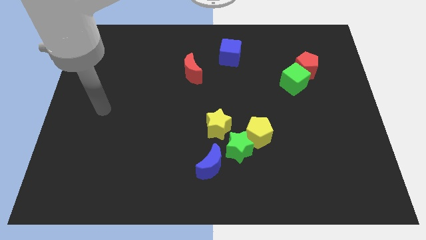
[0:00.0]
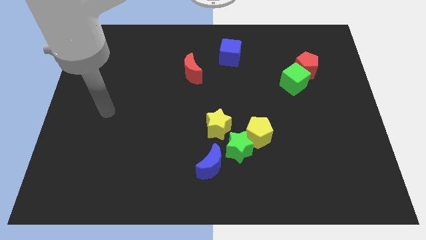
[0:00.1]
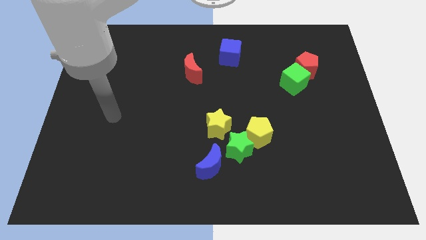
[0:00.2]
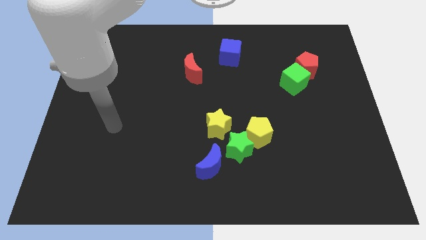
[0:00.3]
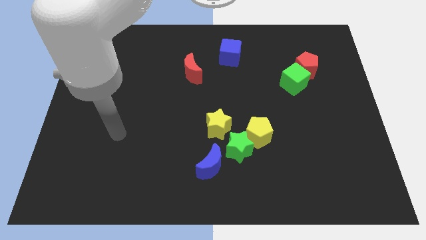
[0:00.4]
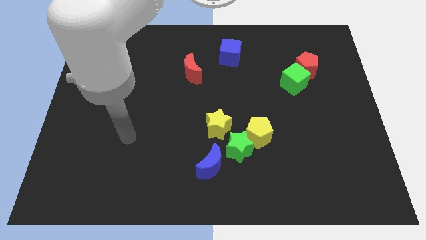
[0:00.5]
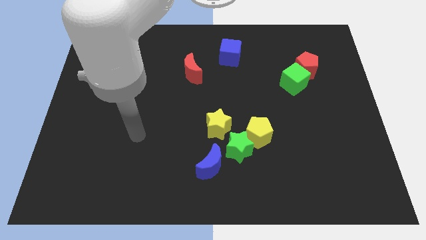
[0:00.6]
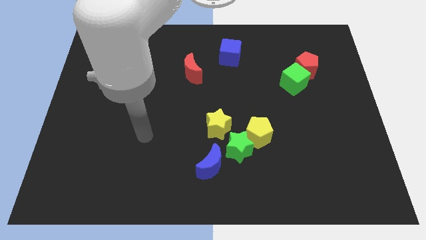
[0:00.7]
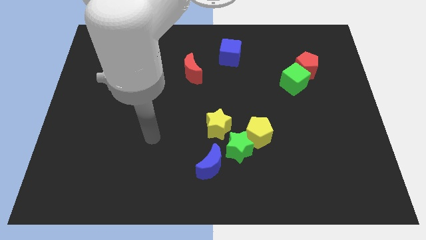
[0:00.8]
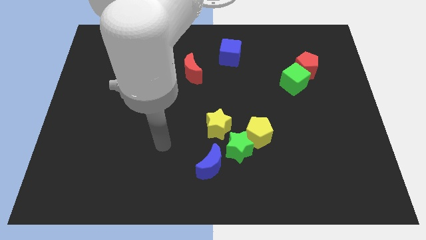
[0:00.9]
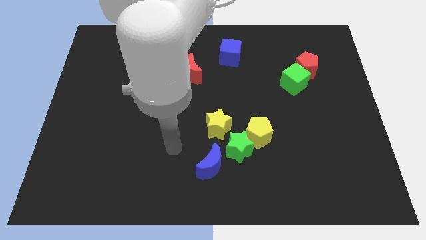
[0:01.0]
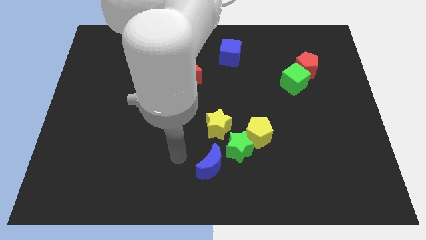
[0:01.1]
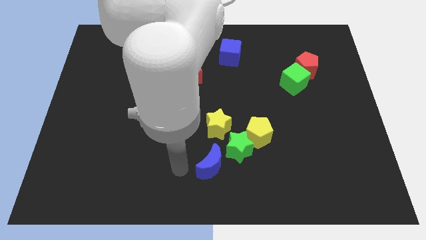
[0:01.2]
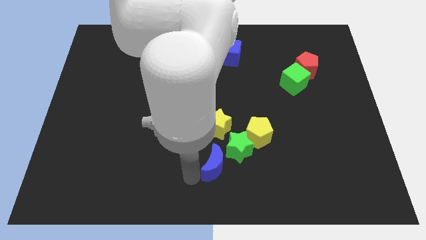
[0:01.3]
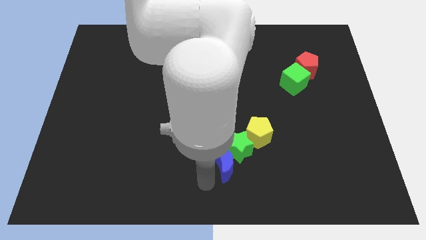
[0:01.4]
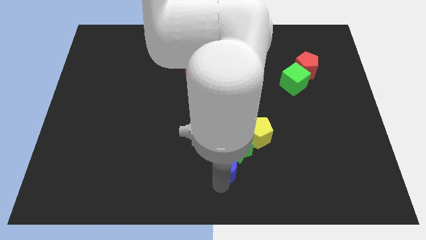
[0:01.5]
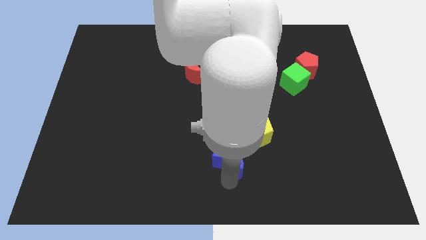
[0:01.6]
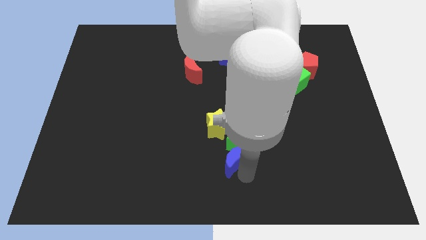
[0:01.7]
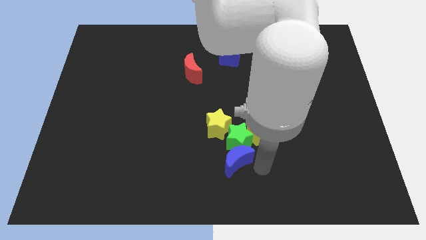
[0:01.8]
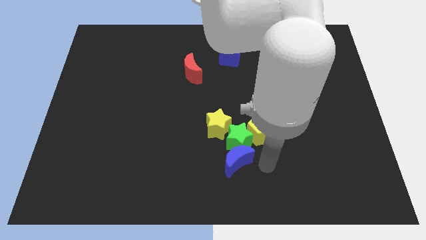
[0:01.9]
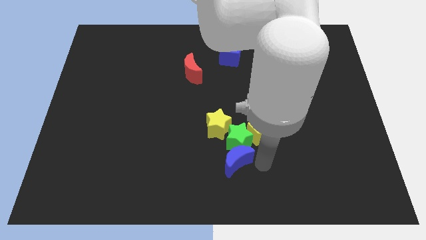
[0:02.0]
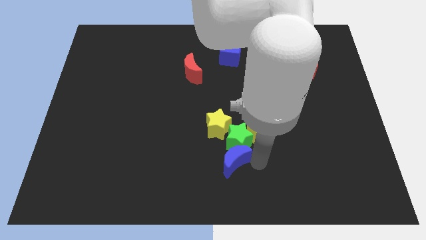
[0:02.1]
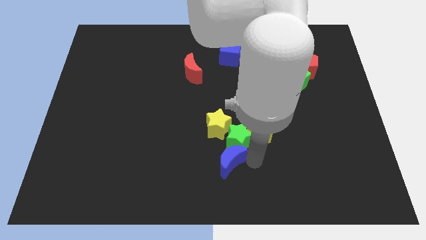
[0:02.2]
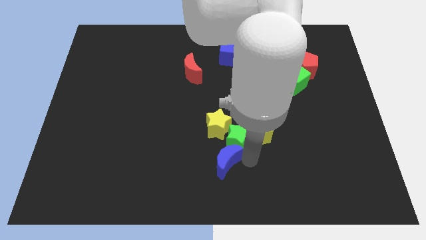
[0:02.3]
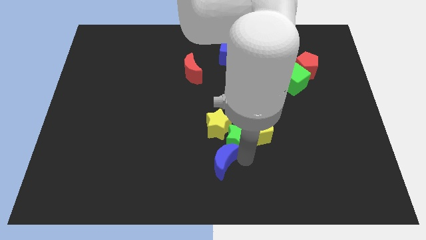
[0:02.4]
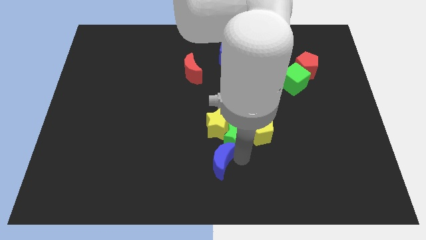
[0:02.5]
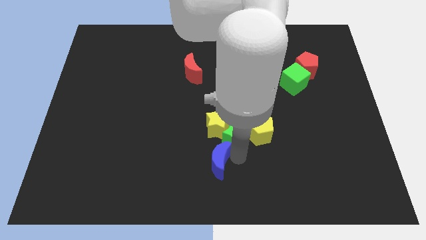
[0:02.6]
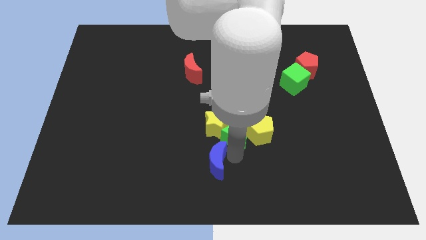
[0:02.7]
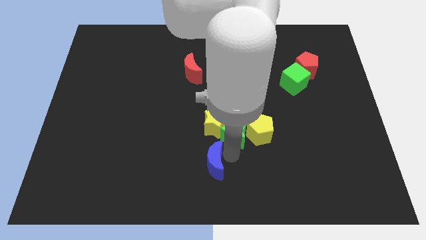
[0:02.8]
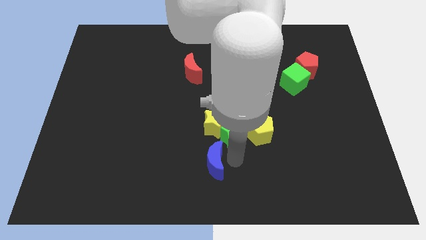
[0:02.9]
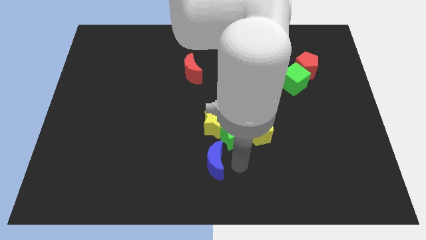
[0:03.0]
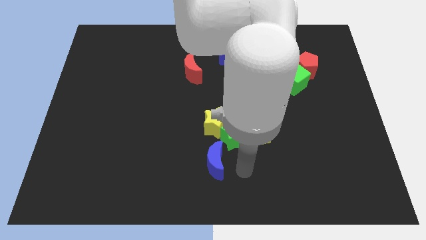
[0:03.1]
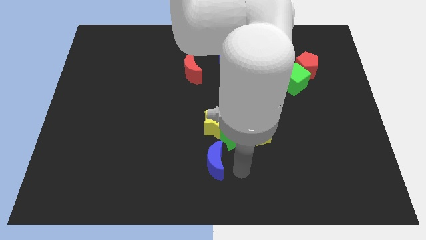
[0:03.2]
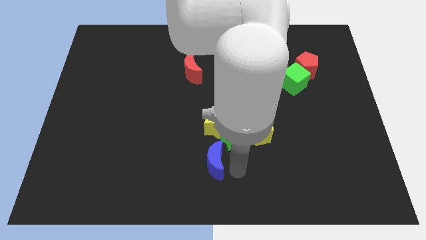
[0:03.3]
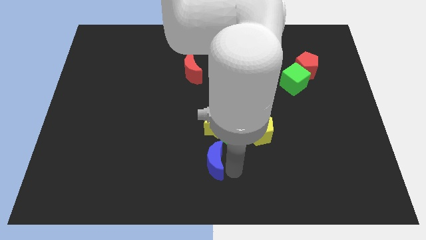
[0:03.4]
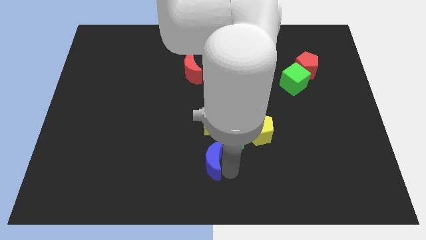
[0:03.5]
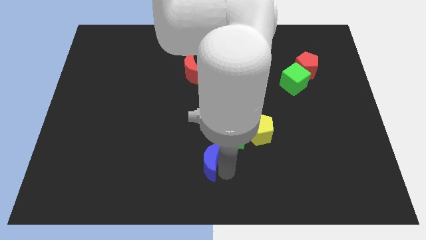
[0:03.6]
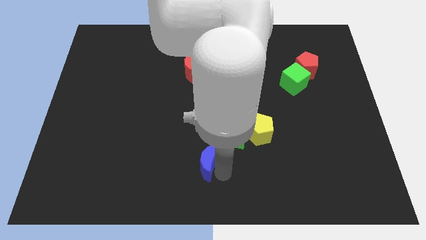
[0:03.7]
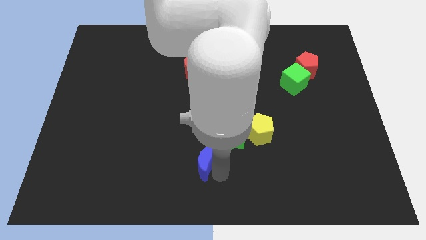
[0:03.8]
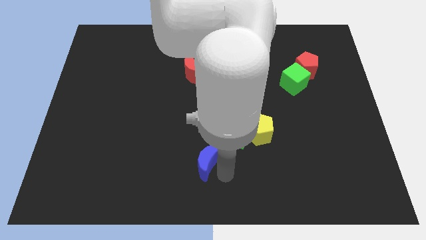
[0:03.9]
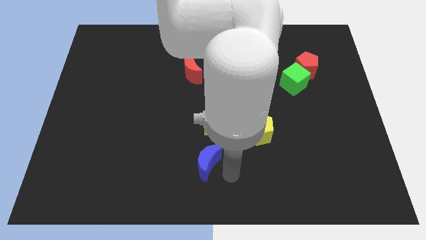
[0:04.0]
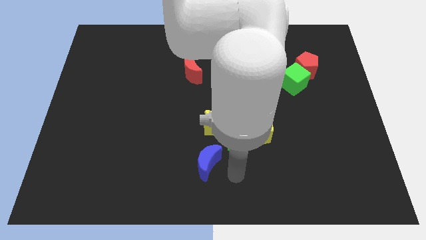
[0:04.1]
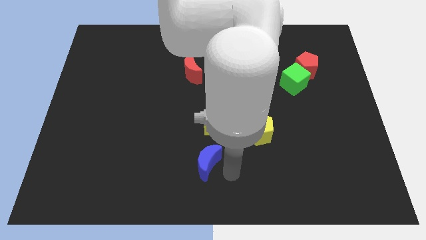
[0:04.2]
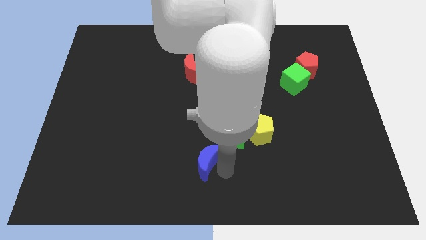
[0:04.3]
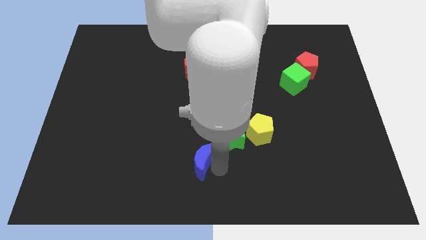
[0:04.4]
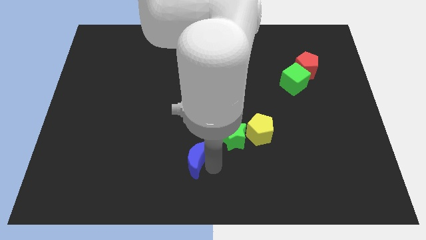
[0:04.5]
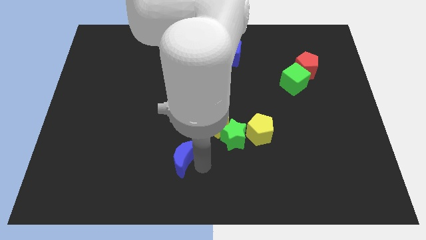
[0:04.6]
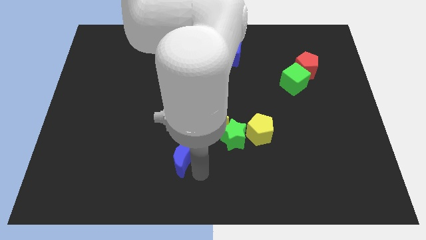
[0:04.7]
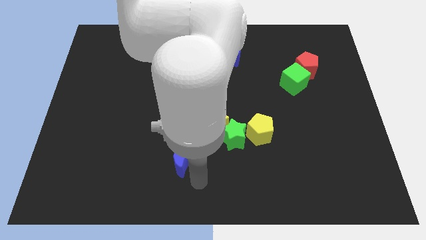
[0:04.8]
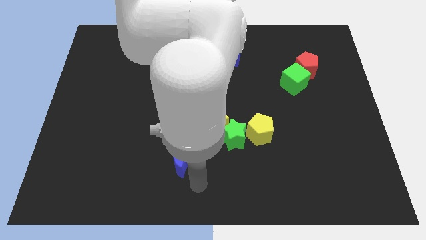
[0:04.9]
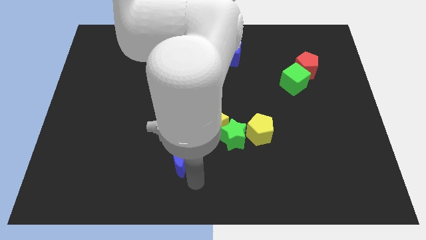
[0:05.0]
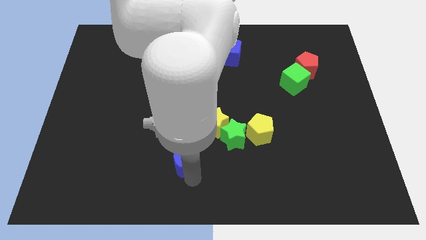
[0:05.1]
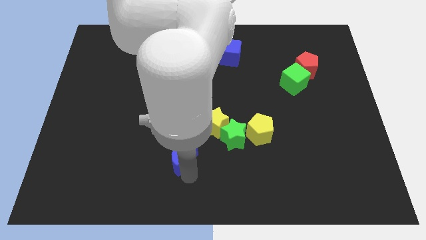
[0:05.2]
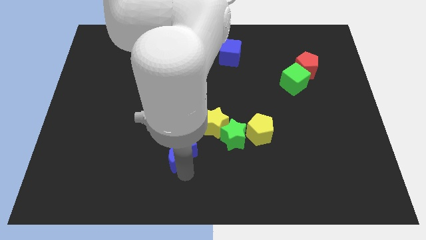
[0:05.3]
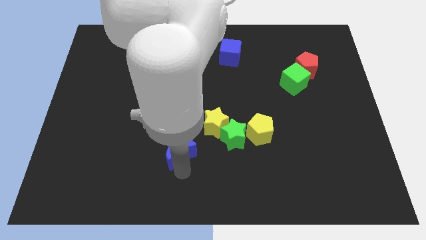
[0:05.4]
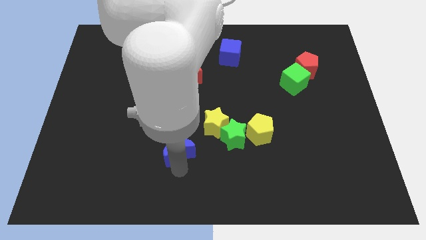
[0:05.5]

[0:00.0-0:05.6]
slightly move the blue moon upwards and to the left diagonally

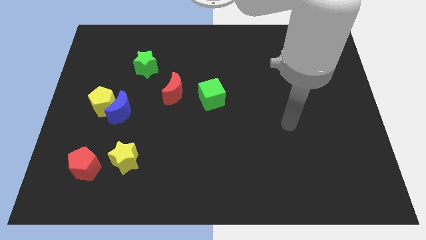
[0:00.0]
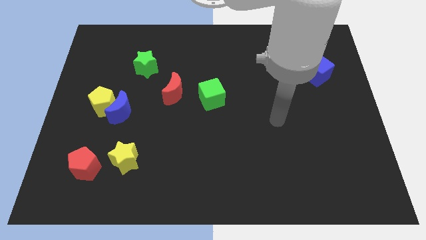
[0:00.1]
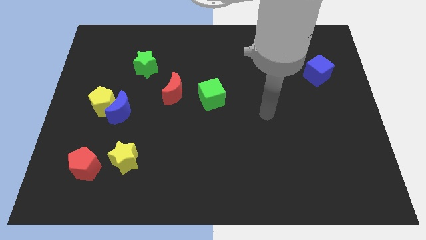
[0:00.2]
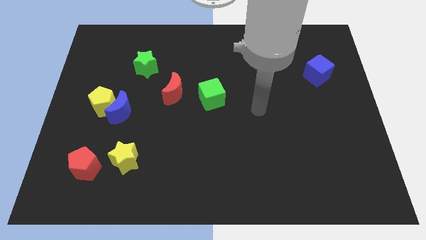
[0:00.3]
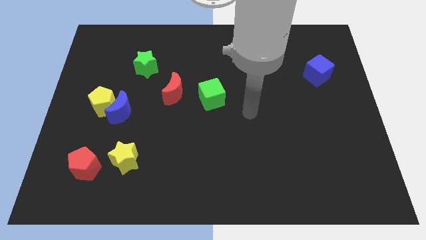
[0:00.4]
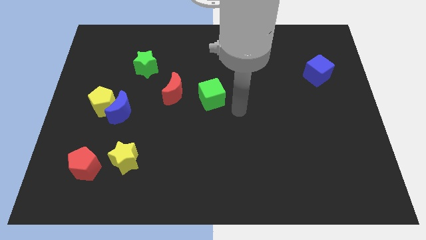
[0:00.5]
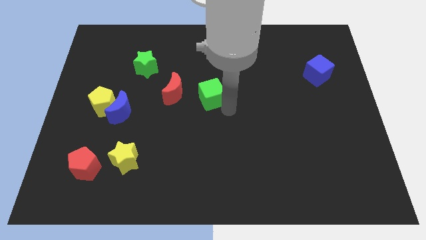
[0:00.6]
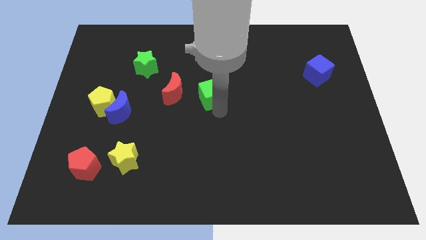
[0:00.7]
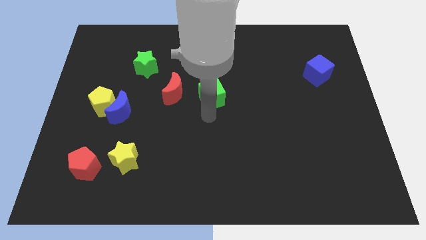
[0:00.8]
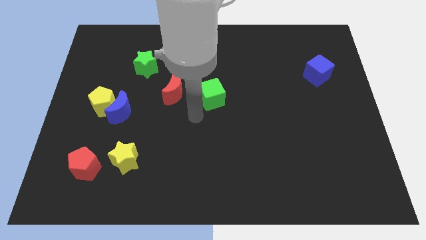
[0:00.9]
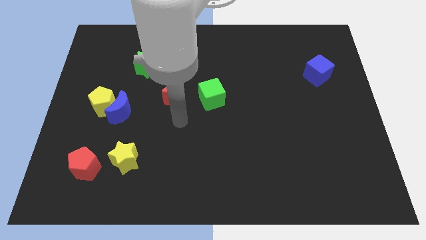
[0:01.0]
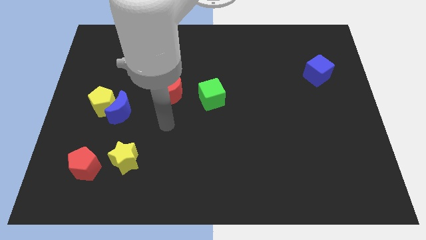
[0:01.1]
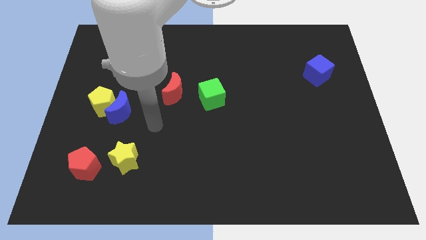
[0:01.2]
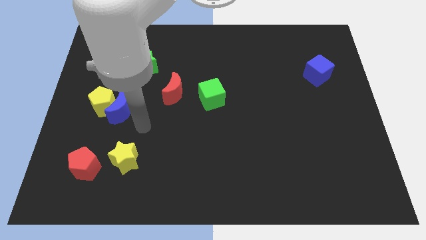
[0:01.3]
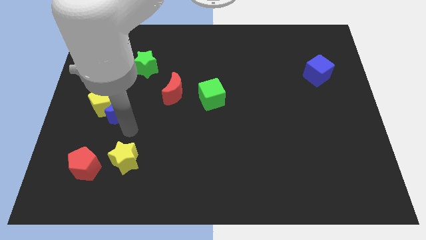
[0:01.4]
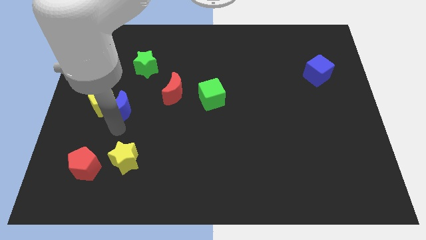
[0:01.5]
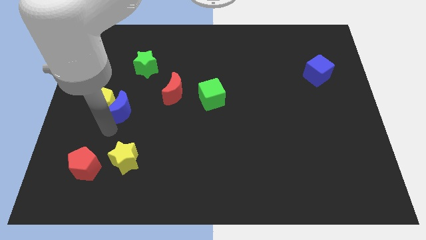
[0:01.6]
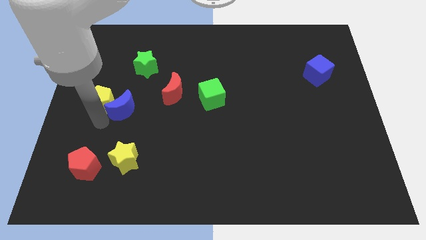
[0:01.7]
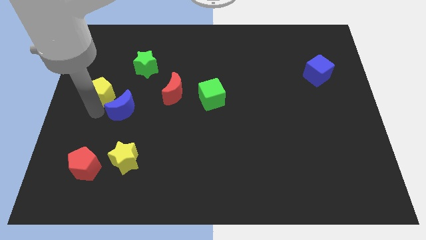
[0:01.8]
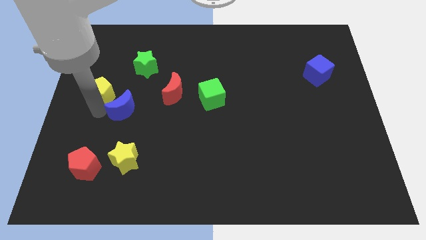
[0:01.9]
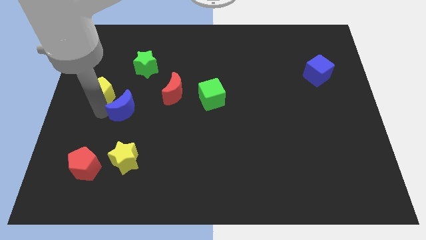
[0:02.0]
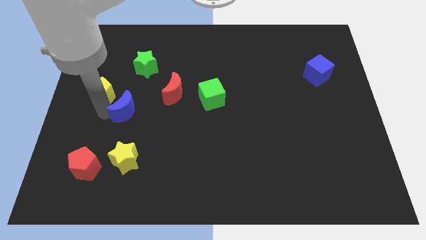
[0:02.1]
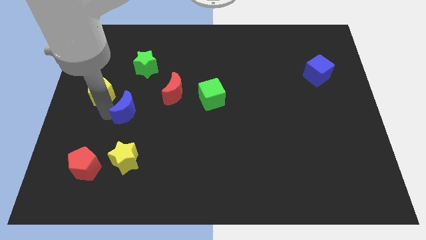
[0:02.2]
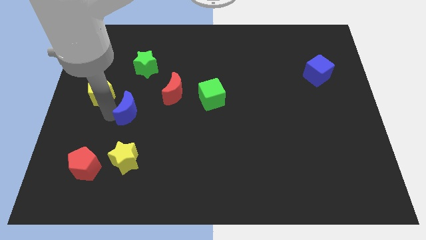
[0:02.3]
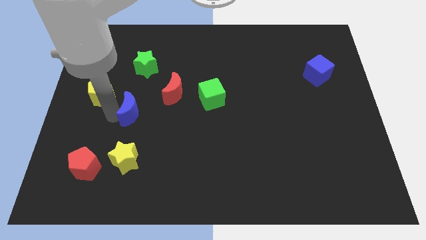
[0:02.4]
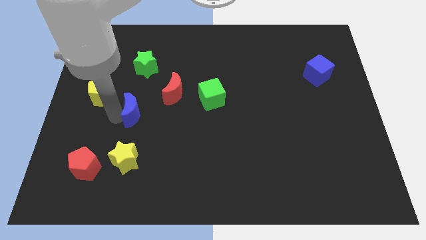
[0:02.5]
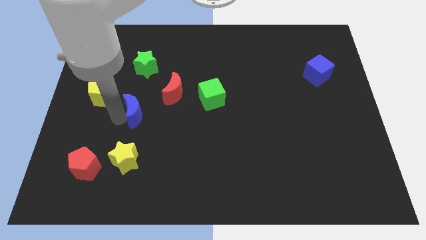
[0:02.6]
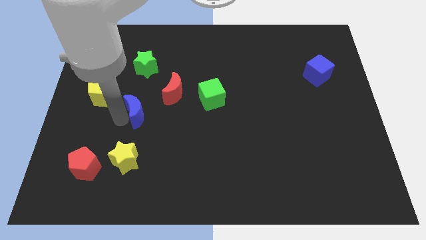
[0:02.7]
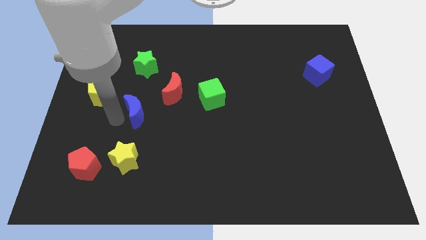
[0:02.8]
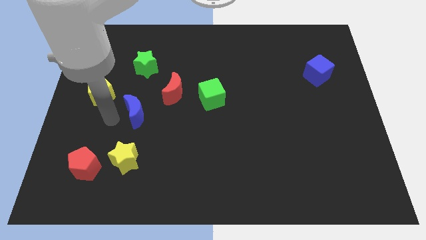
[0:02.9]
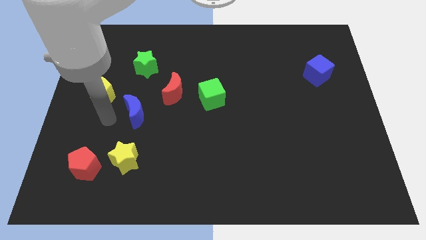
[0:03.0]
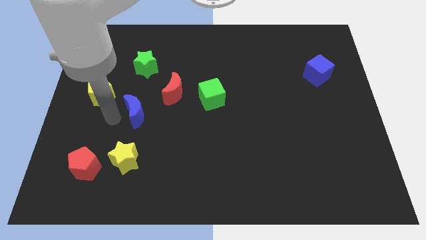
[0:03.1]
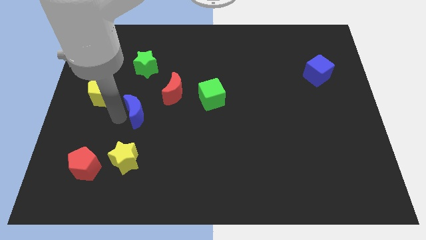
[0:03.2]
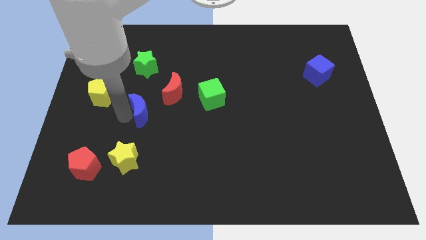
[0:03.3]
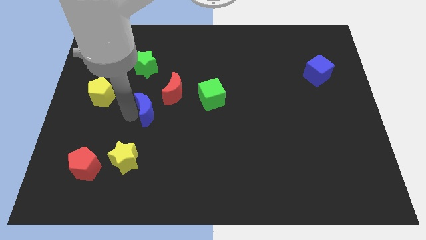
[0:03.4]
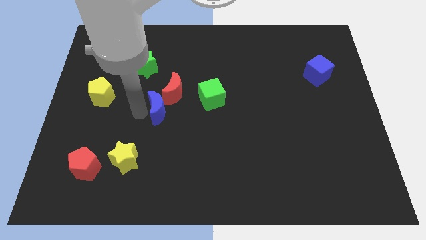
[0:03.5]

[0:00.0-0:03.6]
slightly push the blue moon right
